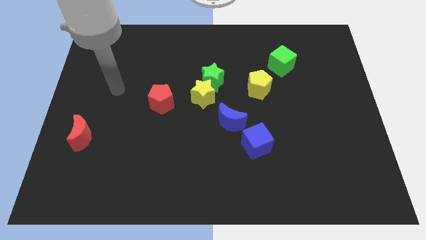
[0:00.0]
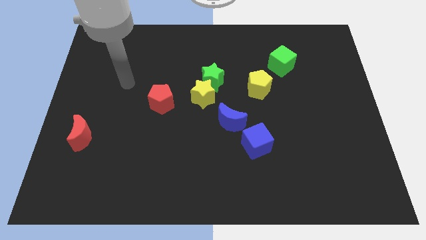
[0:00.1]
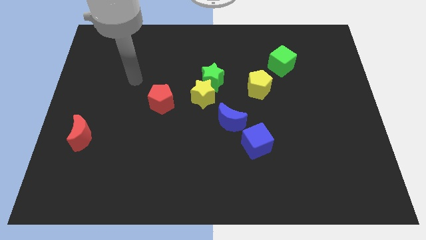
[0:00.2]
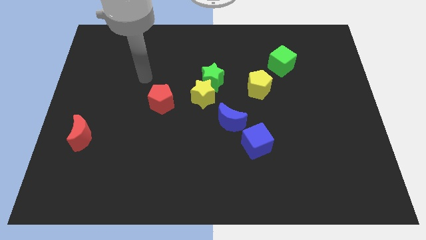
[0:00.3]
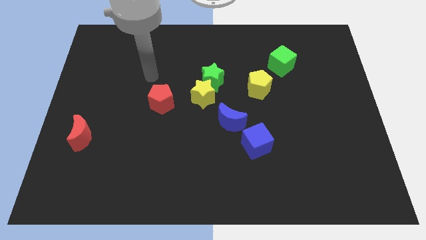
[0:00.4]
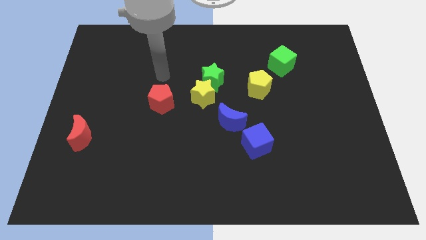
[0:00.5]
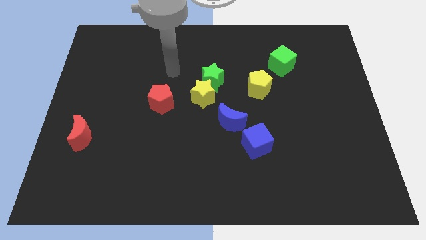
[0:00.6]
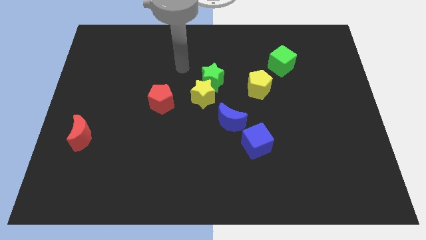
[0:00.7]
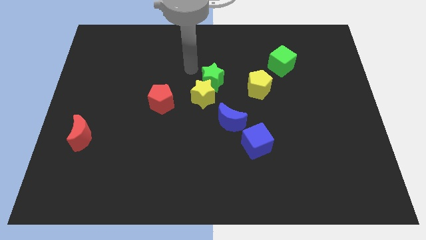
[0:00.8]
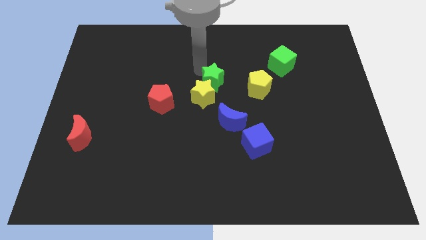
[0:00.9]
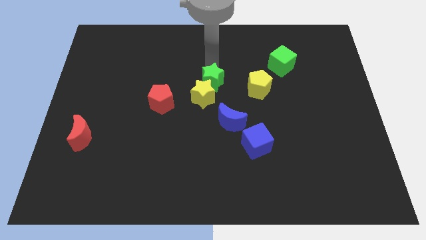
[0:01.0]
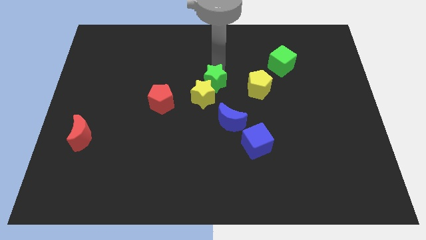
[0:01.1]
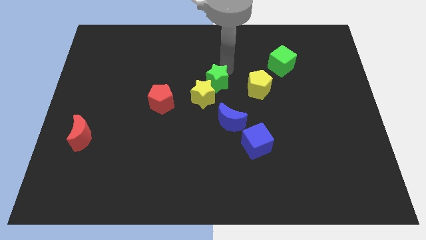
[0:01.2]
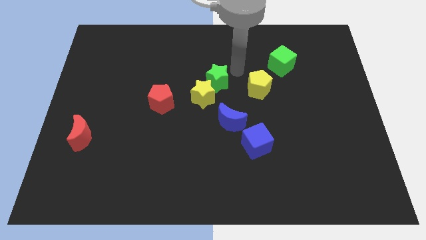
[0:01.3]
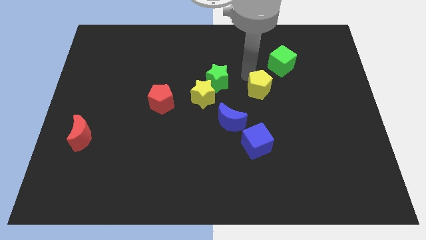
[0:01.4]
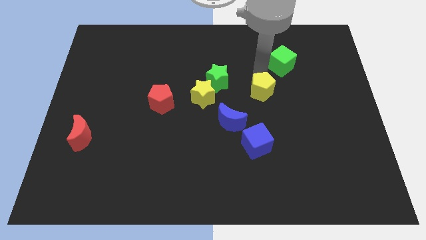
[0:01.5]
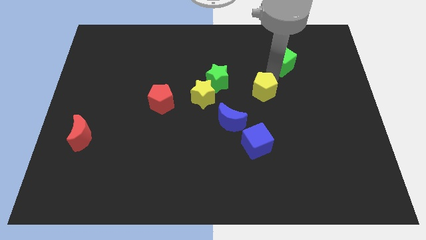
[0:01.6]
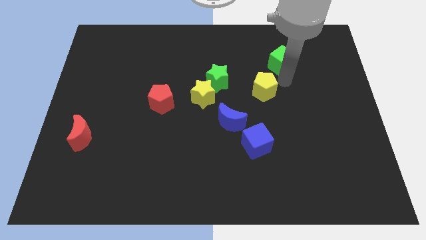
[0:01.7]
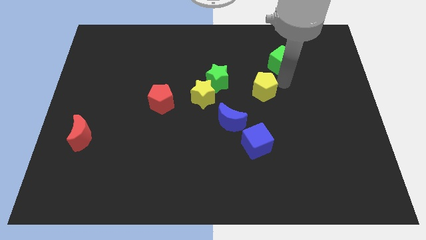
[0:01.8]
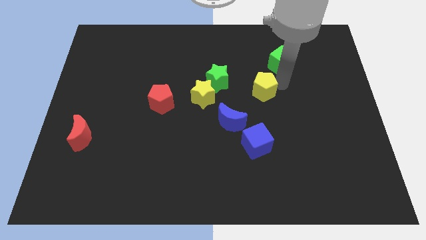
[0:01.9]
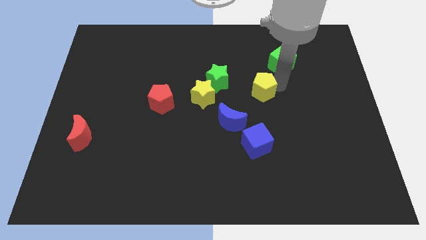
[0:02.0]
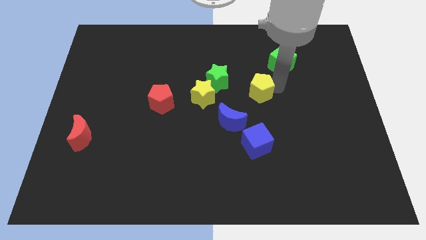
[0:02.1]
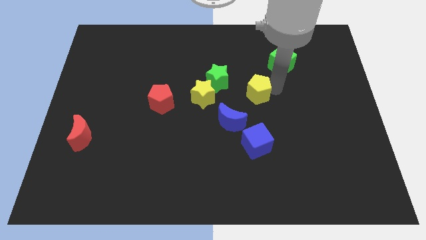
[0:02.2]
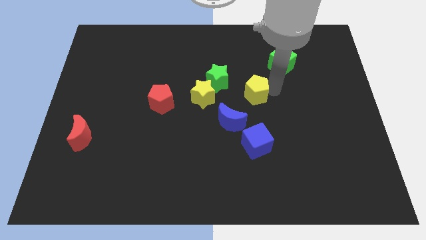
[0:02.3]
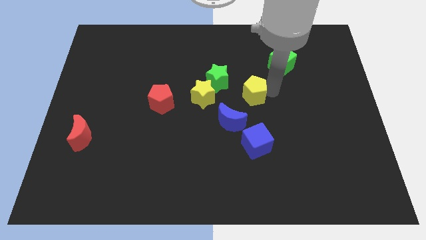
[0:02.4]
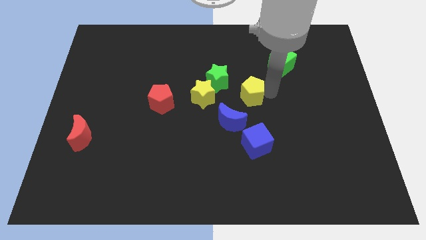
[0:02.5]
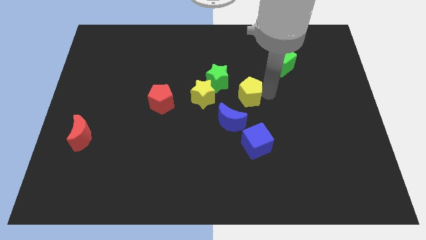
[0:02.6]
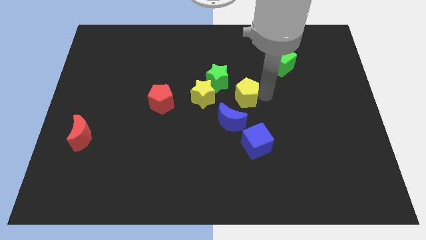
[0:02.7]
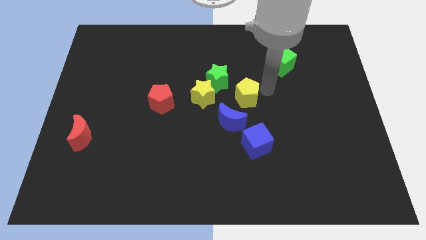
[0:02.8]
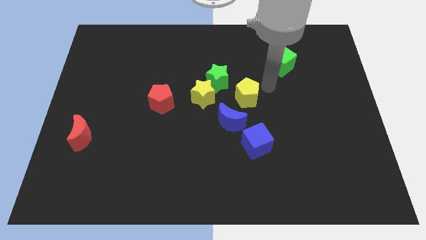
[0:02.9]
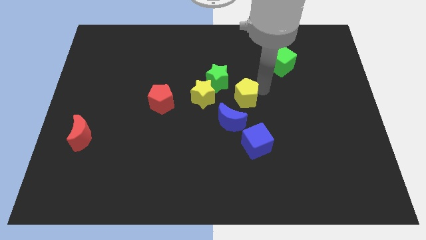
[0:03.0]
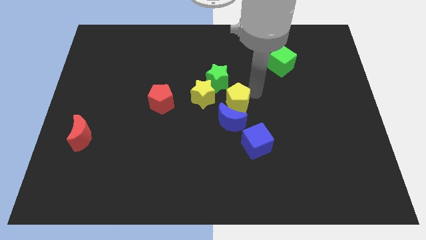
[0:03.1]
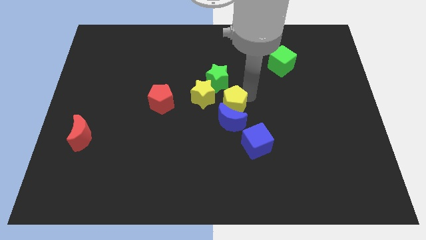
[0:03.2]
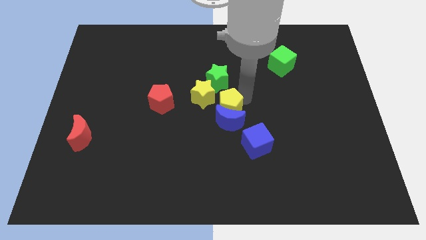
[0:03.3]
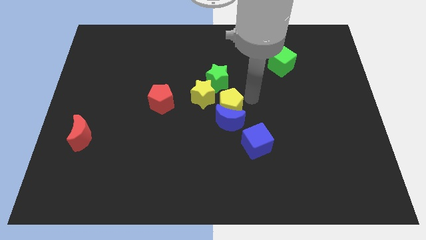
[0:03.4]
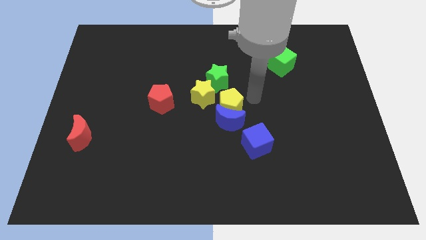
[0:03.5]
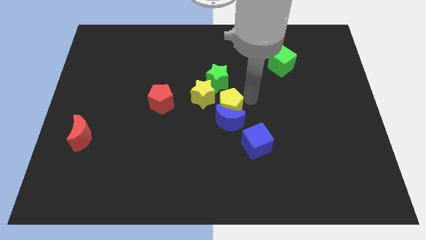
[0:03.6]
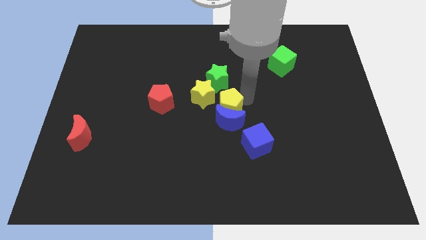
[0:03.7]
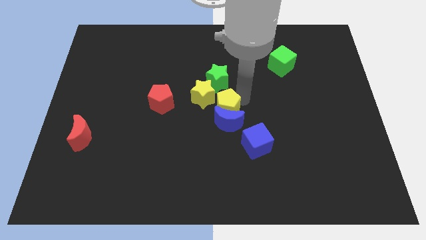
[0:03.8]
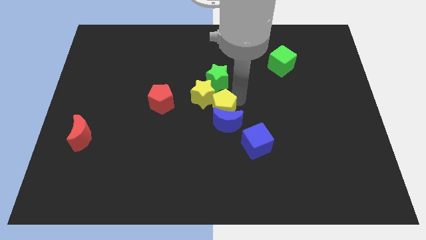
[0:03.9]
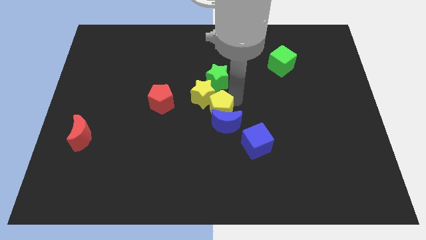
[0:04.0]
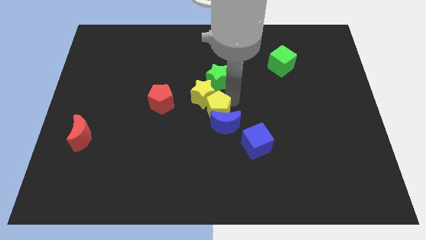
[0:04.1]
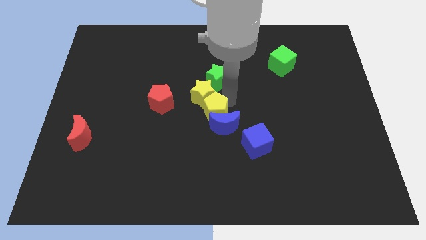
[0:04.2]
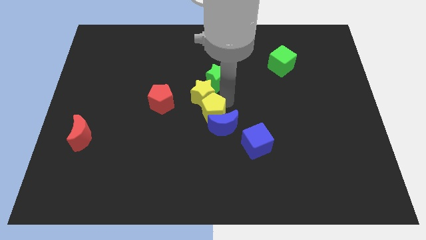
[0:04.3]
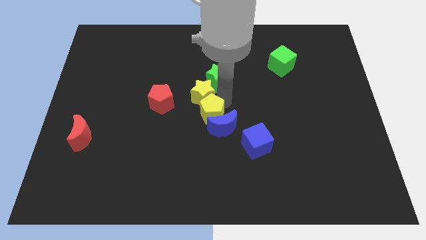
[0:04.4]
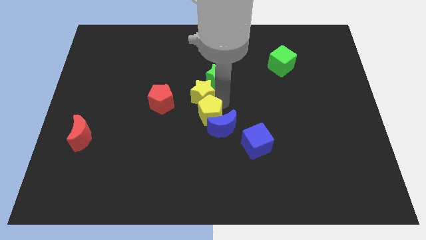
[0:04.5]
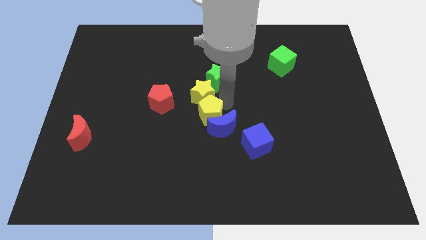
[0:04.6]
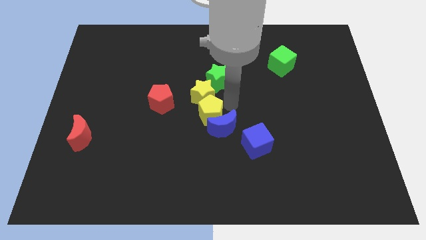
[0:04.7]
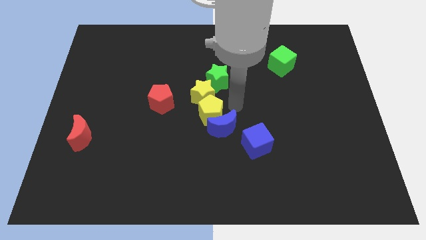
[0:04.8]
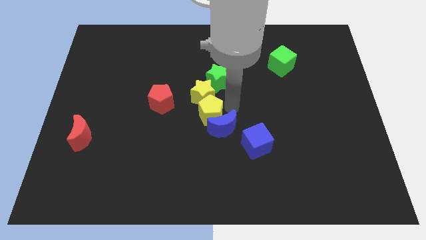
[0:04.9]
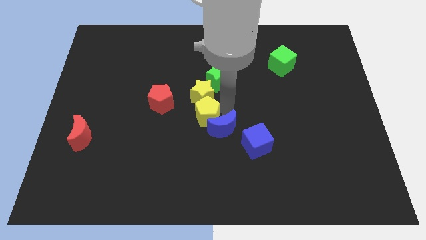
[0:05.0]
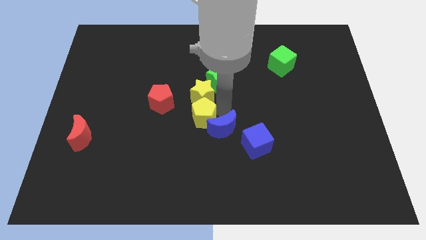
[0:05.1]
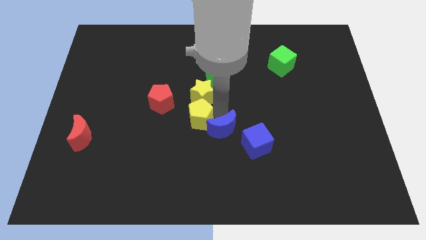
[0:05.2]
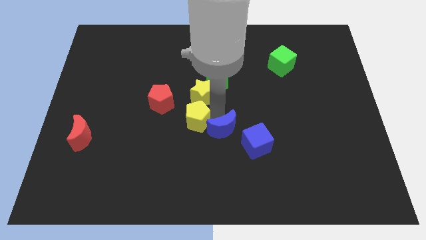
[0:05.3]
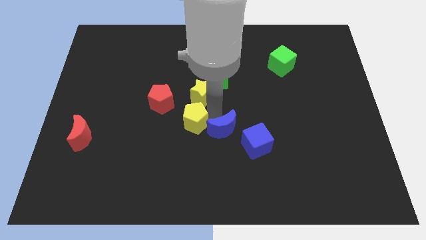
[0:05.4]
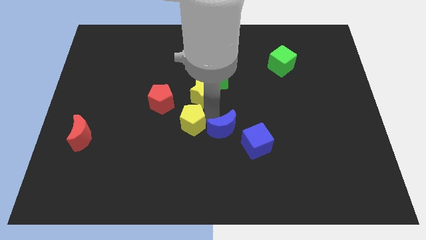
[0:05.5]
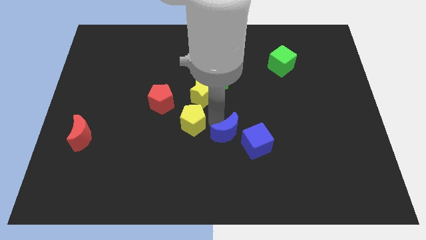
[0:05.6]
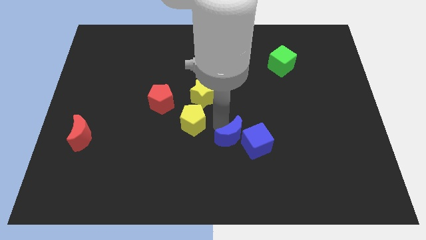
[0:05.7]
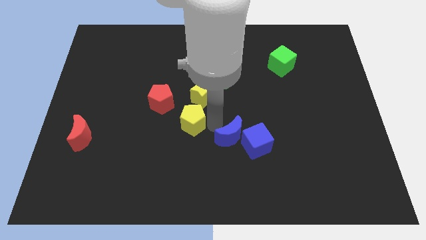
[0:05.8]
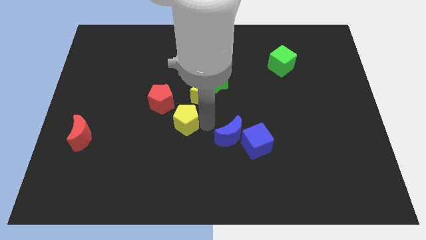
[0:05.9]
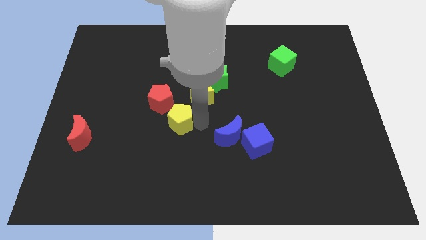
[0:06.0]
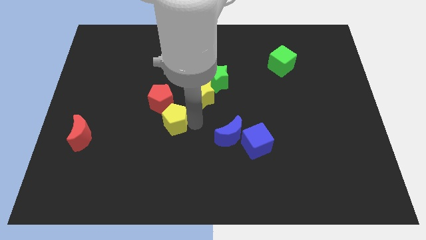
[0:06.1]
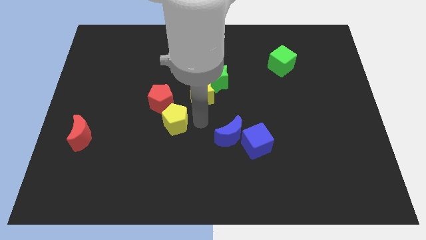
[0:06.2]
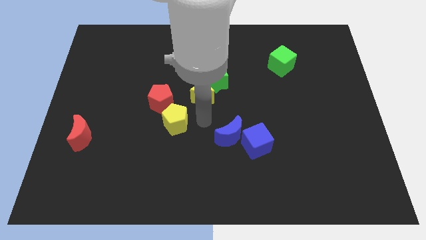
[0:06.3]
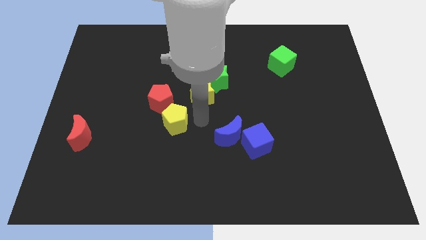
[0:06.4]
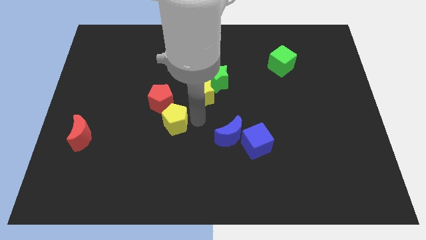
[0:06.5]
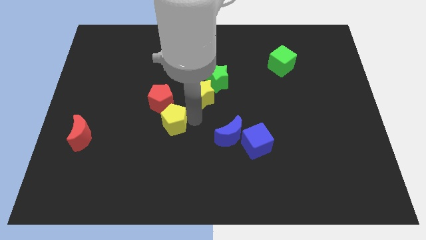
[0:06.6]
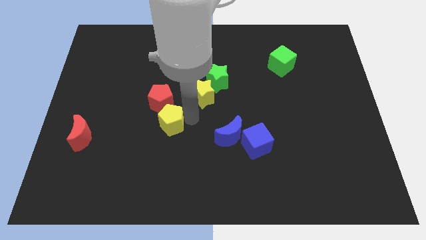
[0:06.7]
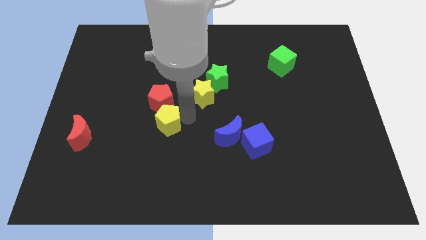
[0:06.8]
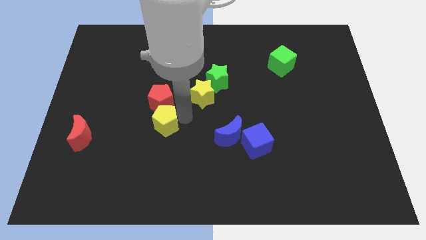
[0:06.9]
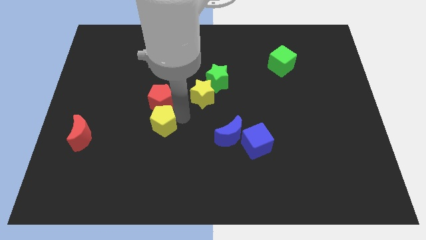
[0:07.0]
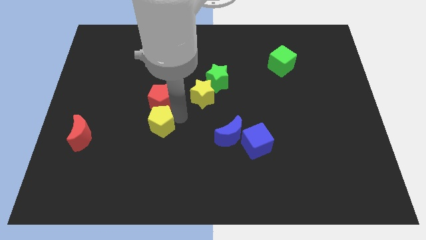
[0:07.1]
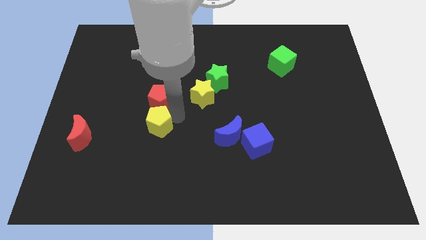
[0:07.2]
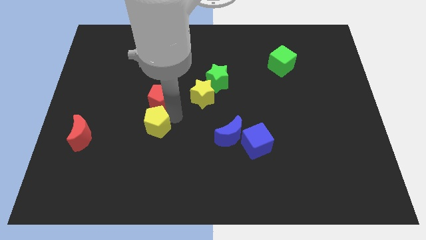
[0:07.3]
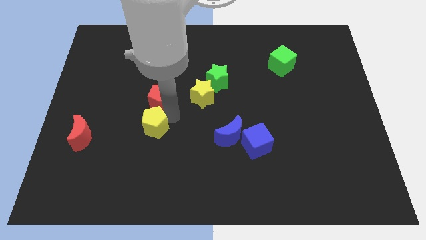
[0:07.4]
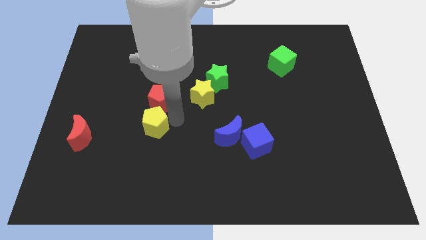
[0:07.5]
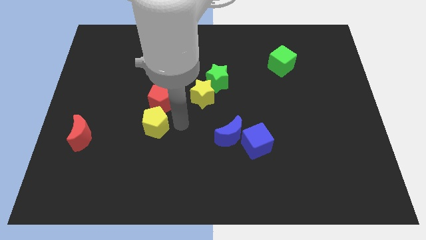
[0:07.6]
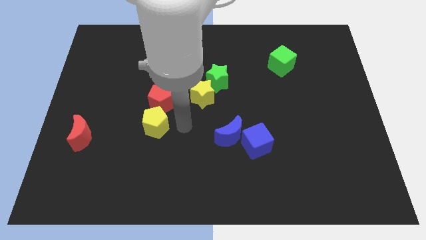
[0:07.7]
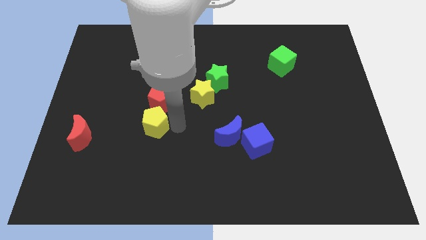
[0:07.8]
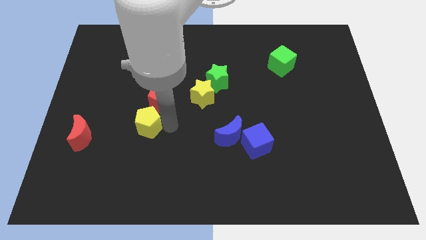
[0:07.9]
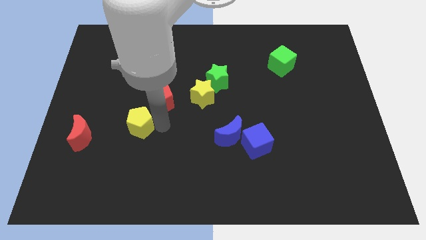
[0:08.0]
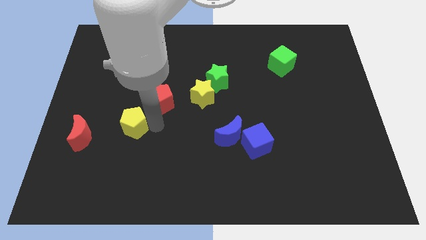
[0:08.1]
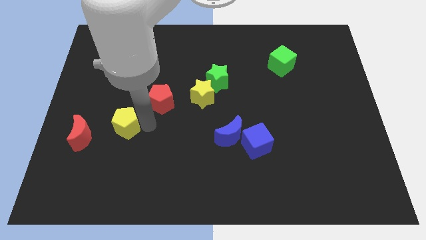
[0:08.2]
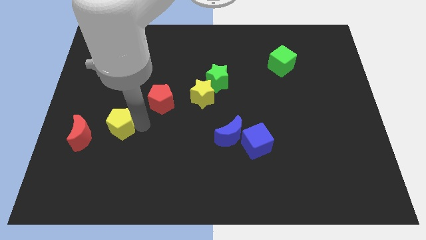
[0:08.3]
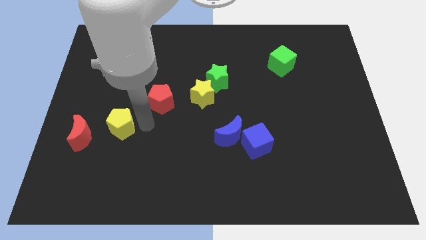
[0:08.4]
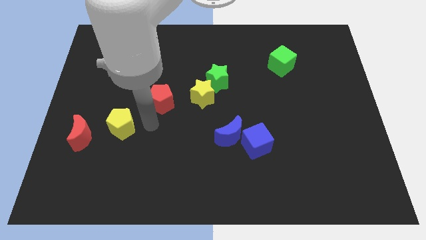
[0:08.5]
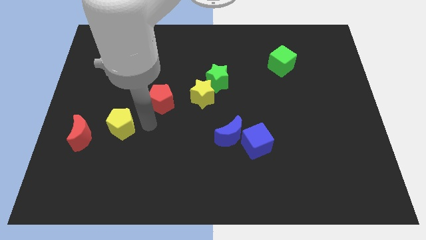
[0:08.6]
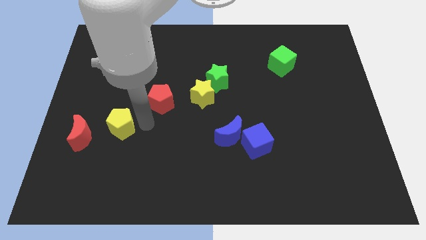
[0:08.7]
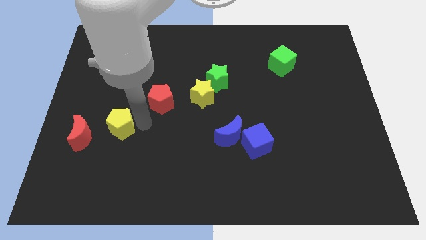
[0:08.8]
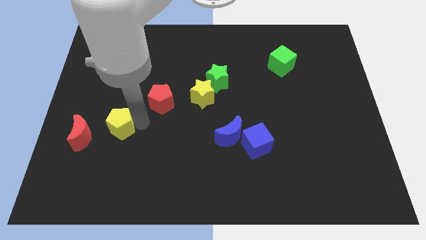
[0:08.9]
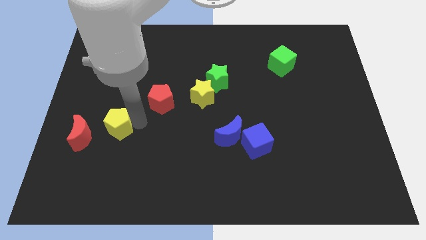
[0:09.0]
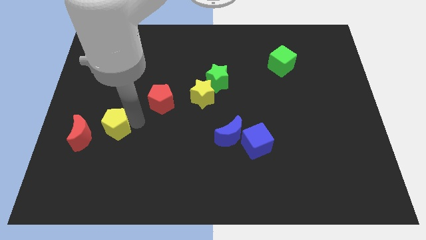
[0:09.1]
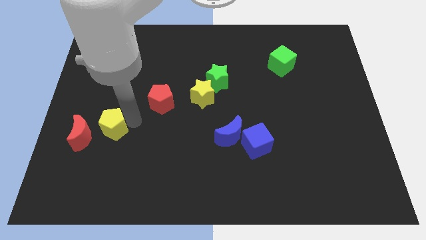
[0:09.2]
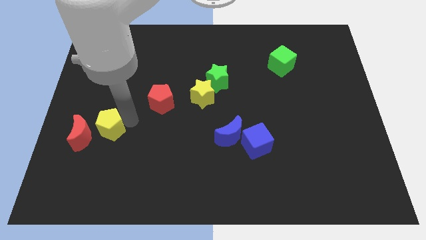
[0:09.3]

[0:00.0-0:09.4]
slide the yellow pentagon to the red moon
